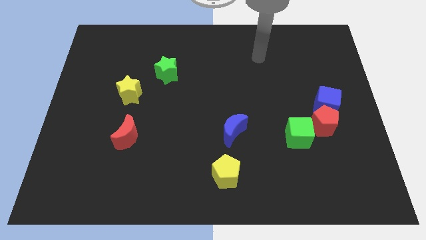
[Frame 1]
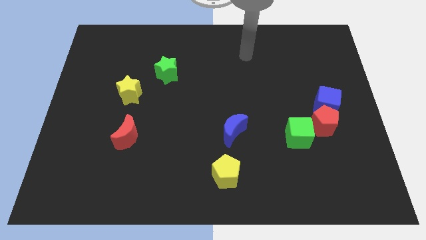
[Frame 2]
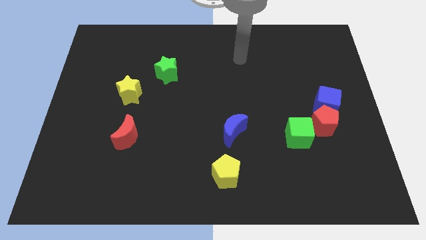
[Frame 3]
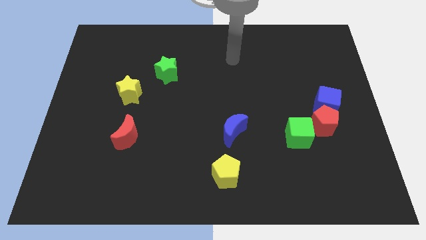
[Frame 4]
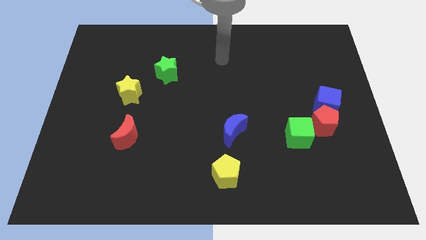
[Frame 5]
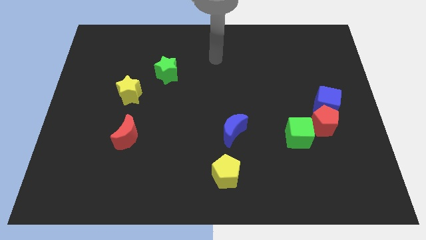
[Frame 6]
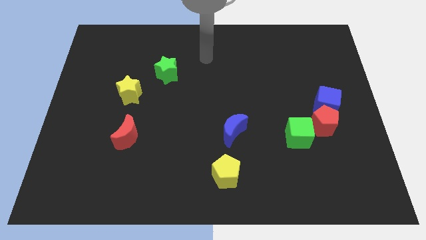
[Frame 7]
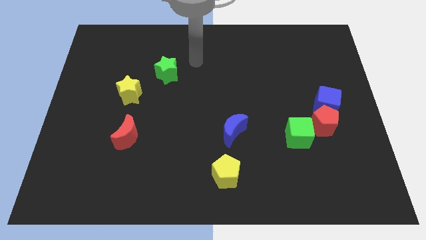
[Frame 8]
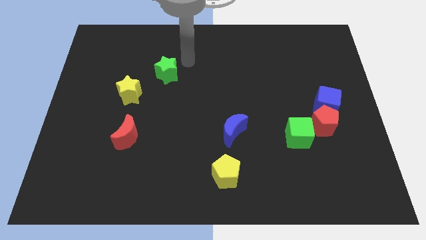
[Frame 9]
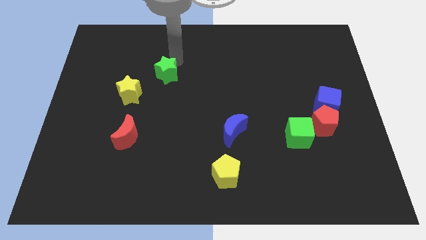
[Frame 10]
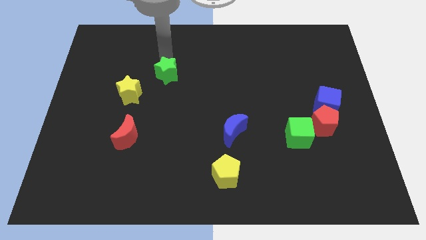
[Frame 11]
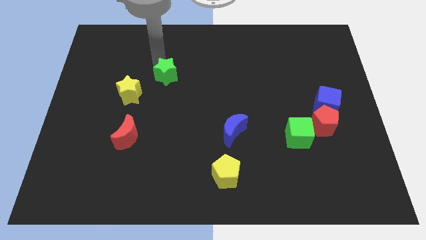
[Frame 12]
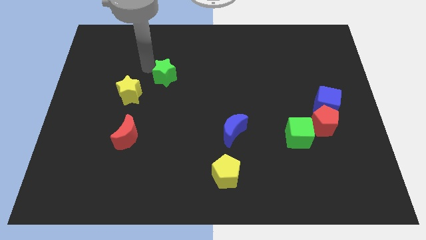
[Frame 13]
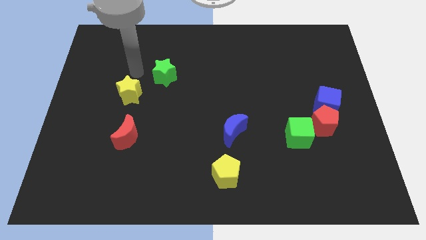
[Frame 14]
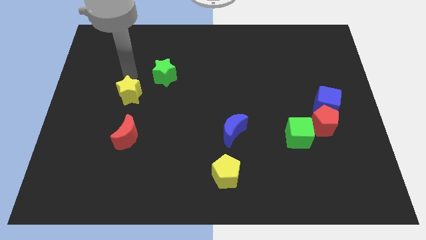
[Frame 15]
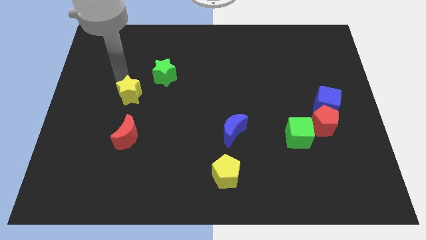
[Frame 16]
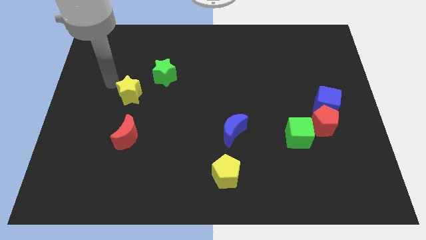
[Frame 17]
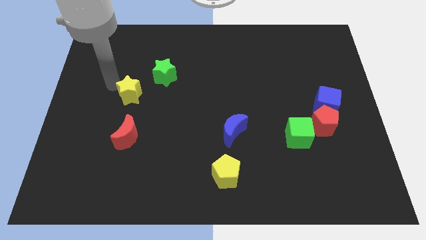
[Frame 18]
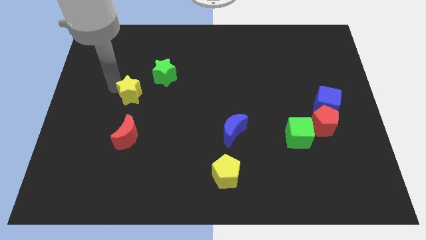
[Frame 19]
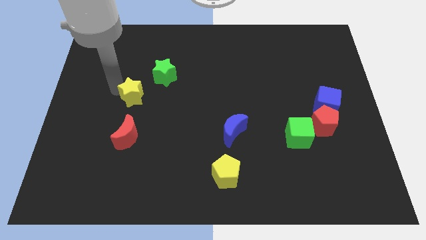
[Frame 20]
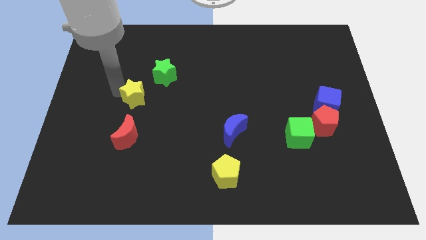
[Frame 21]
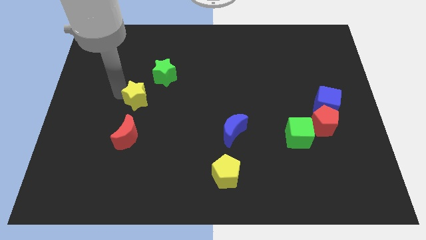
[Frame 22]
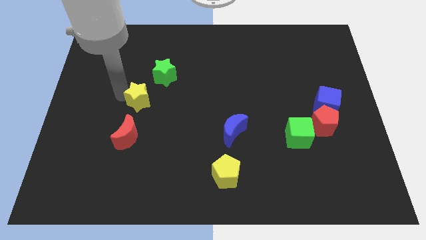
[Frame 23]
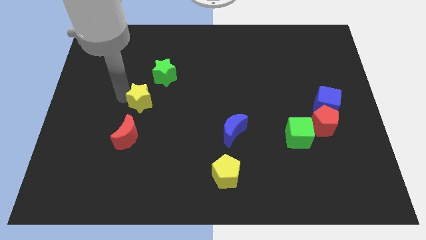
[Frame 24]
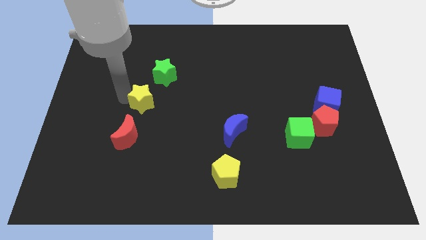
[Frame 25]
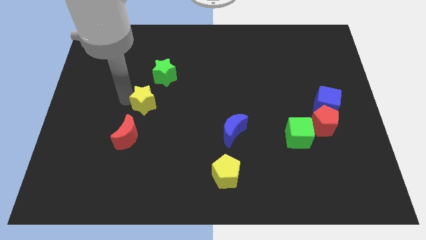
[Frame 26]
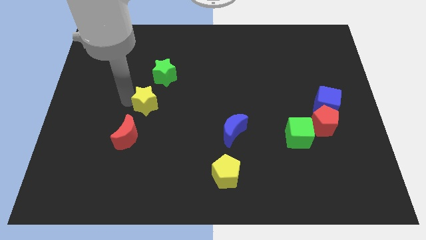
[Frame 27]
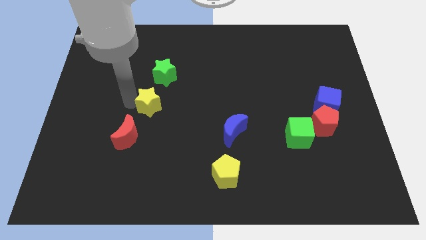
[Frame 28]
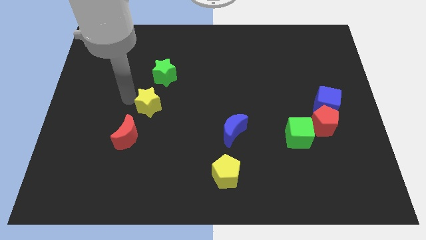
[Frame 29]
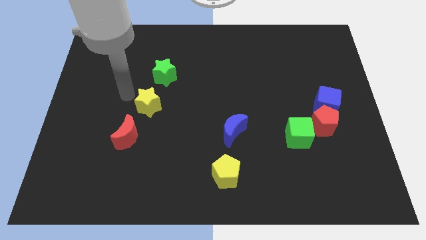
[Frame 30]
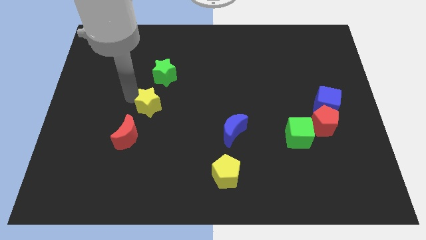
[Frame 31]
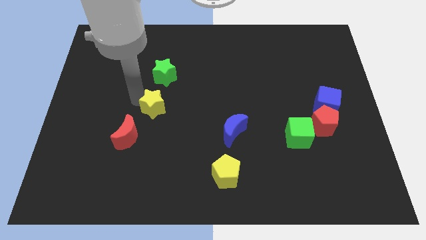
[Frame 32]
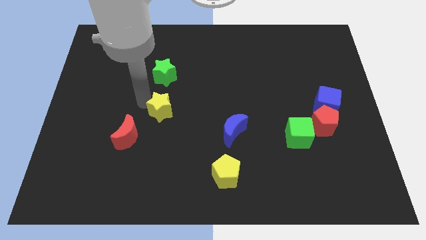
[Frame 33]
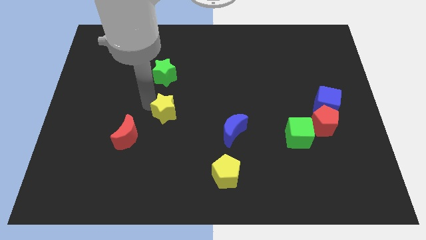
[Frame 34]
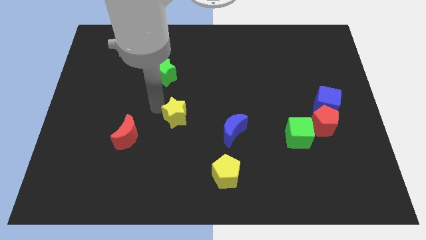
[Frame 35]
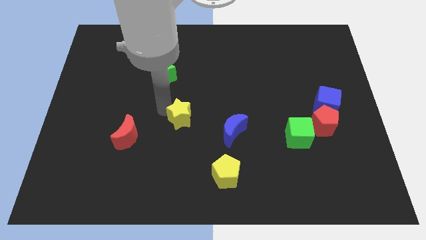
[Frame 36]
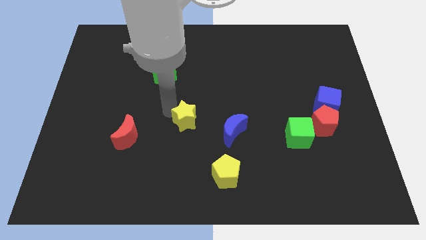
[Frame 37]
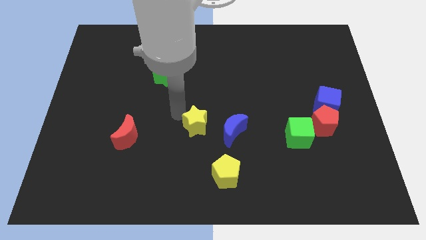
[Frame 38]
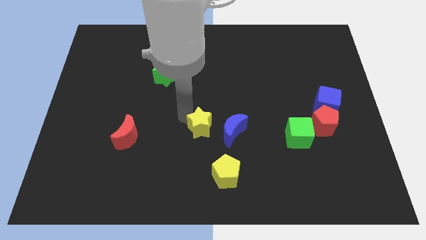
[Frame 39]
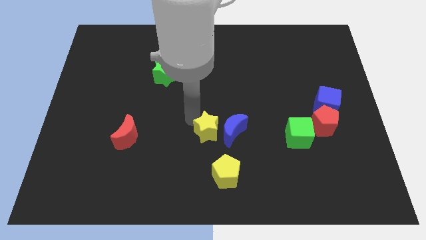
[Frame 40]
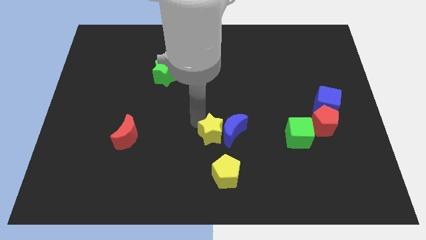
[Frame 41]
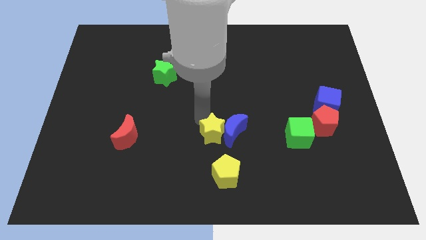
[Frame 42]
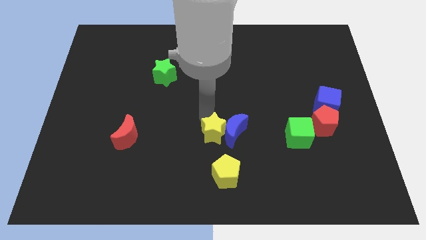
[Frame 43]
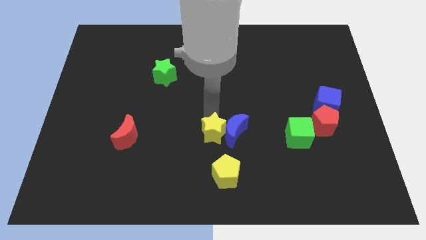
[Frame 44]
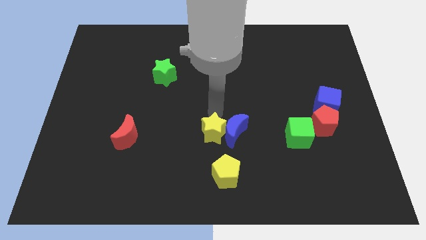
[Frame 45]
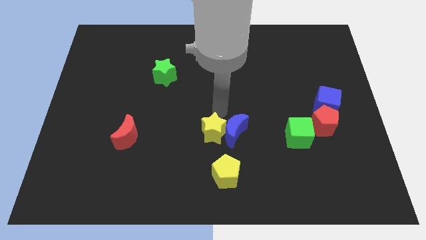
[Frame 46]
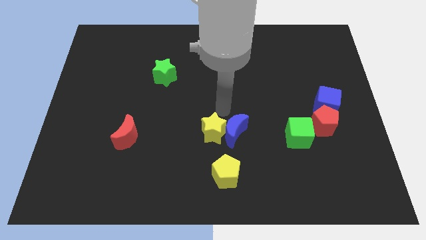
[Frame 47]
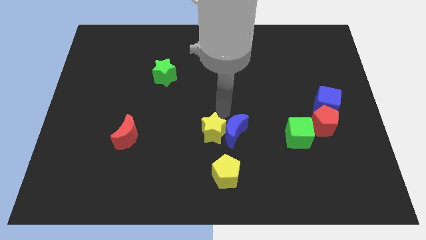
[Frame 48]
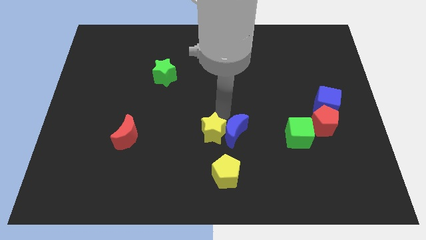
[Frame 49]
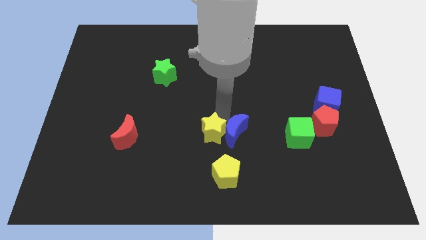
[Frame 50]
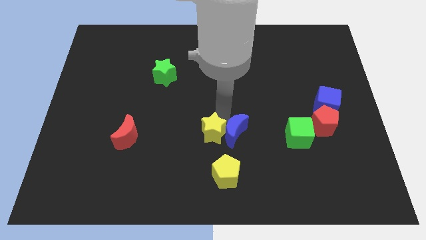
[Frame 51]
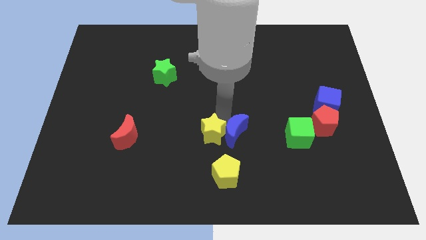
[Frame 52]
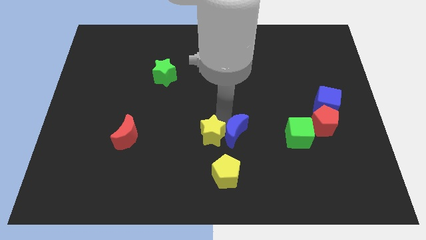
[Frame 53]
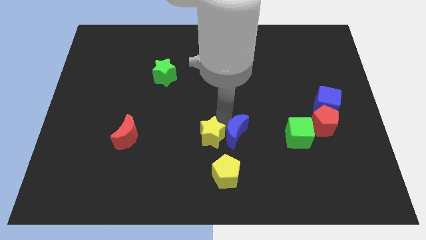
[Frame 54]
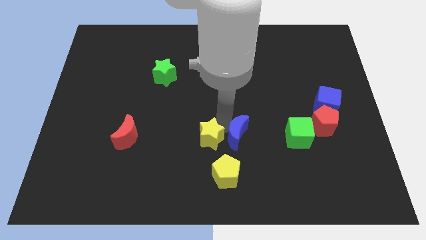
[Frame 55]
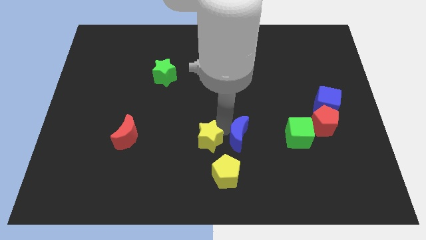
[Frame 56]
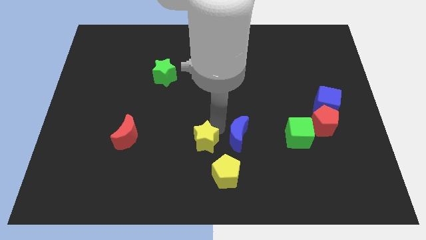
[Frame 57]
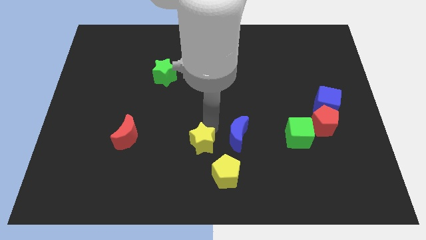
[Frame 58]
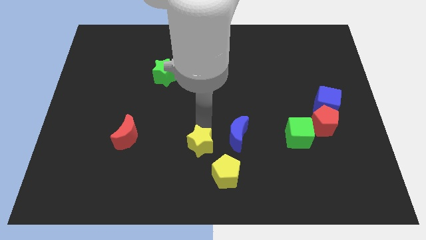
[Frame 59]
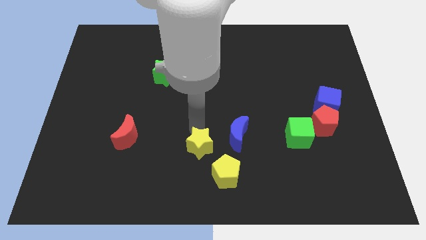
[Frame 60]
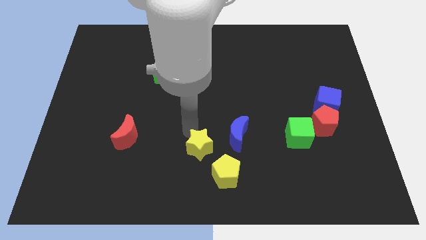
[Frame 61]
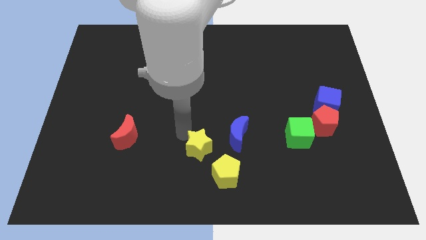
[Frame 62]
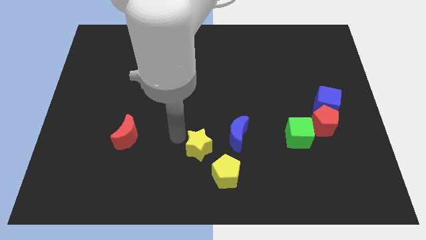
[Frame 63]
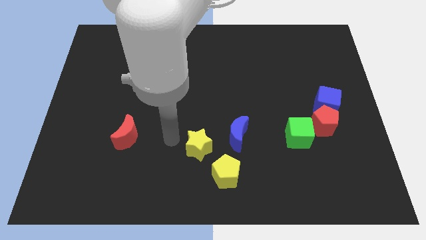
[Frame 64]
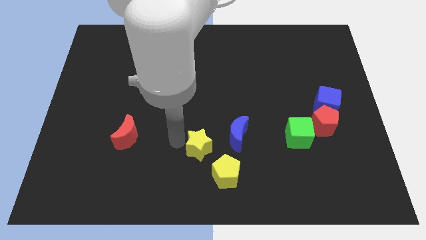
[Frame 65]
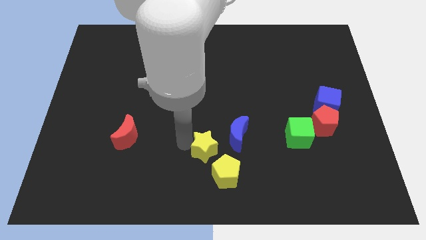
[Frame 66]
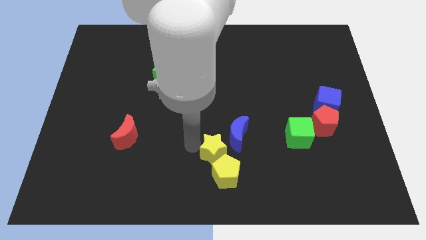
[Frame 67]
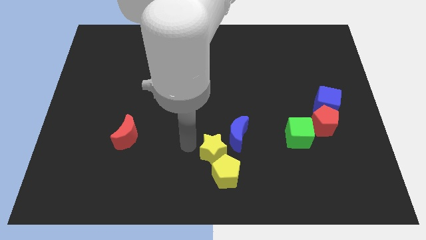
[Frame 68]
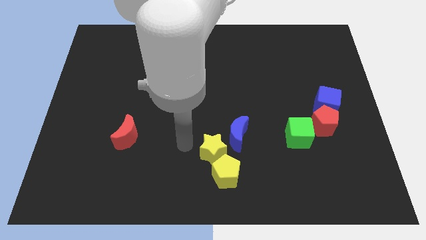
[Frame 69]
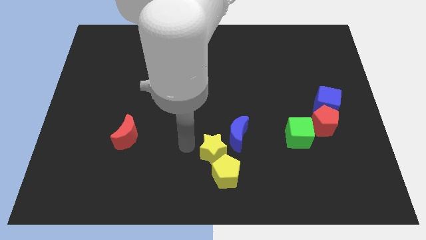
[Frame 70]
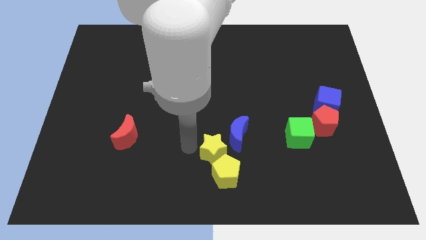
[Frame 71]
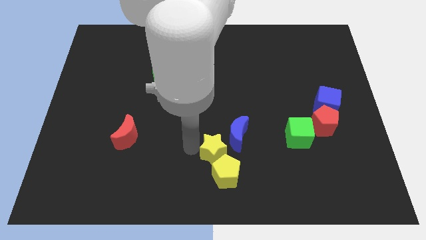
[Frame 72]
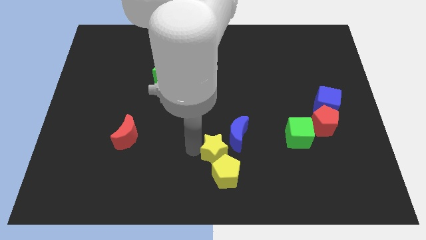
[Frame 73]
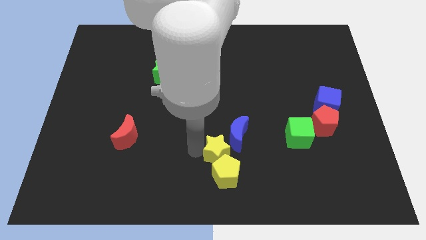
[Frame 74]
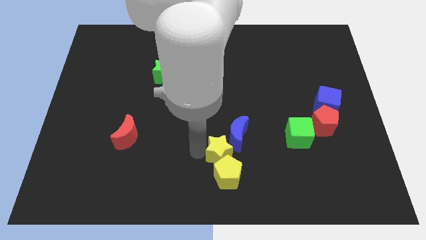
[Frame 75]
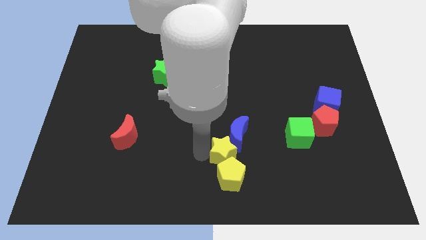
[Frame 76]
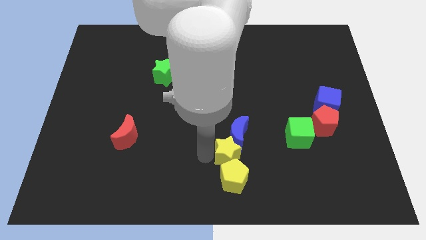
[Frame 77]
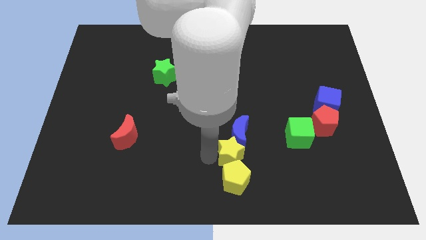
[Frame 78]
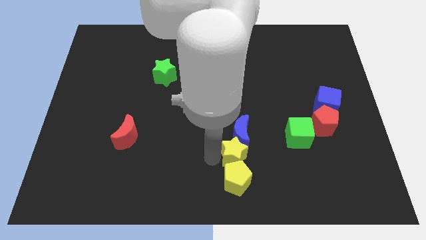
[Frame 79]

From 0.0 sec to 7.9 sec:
put the yellow star diagonally down and to the right of the blue moon

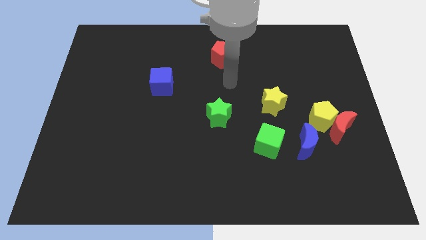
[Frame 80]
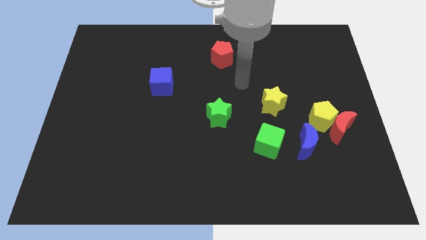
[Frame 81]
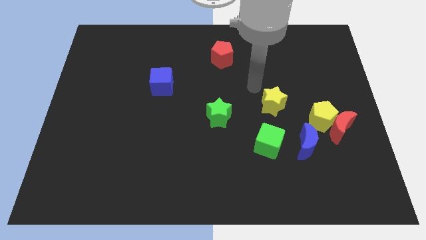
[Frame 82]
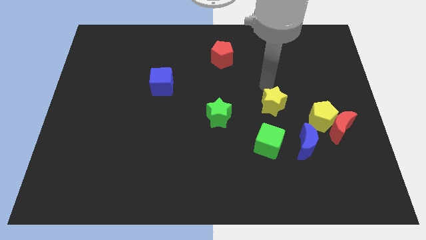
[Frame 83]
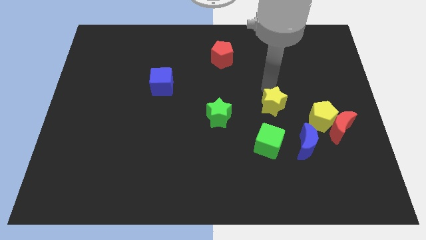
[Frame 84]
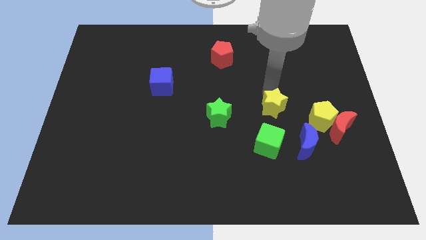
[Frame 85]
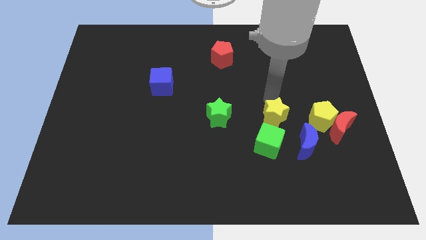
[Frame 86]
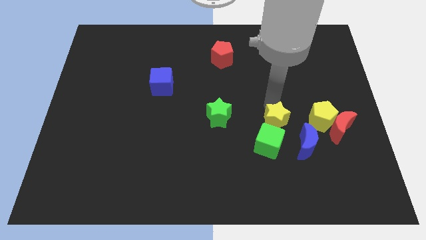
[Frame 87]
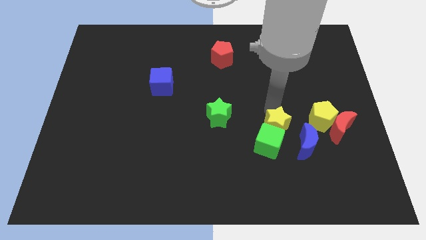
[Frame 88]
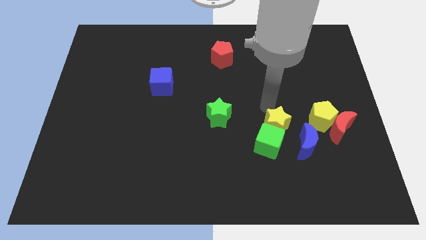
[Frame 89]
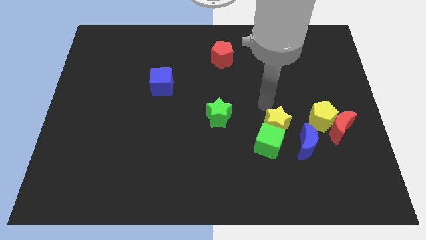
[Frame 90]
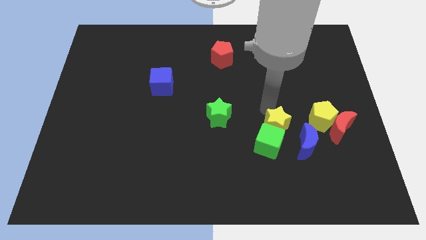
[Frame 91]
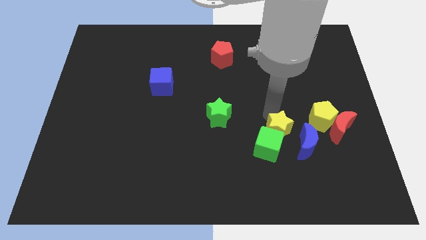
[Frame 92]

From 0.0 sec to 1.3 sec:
put the yellow star just right of the green cube
